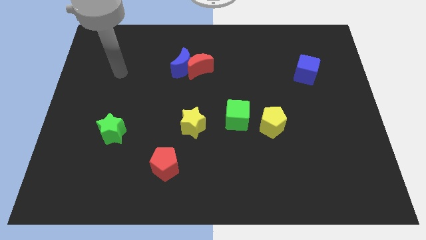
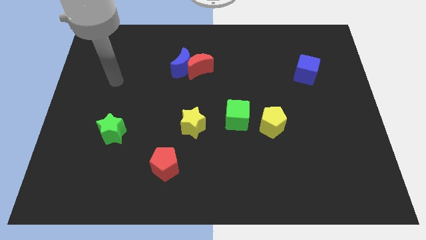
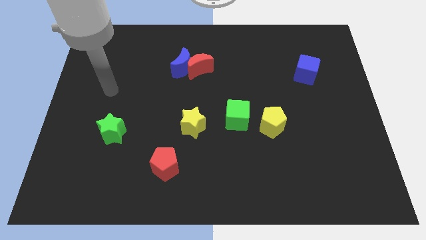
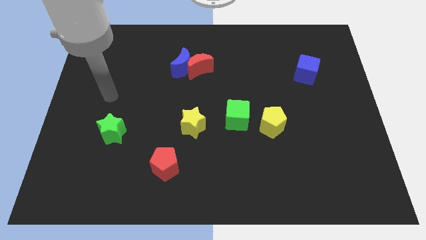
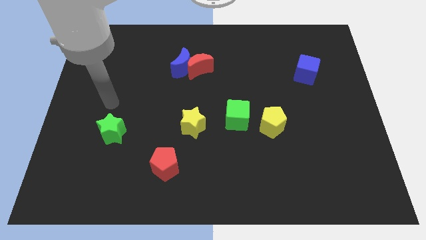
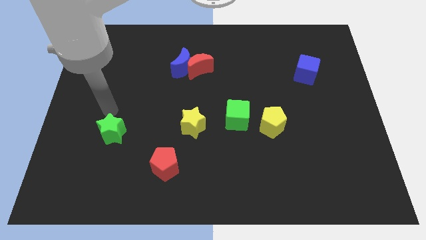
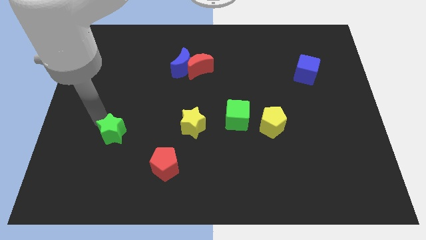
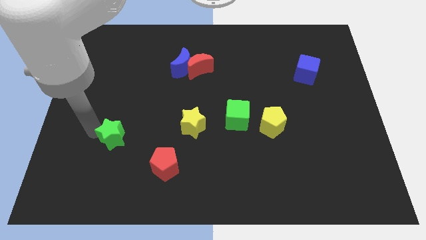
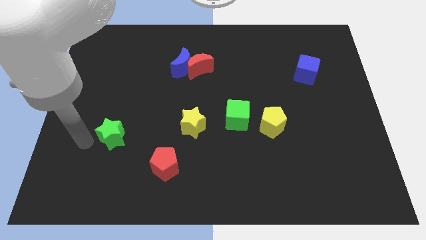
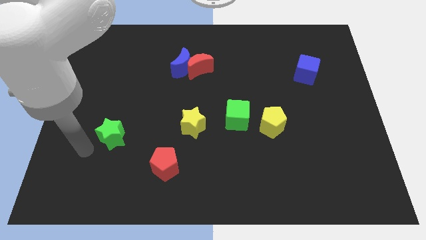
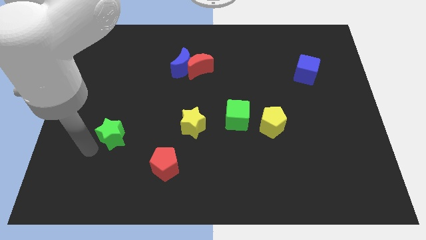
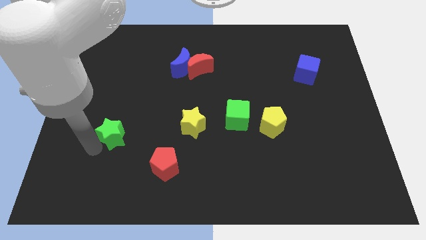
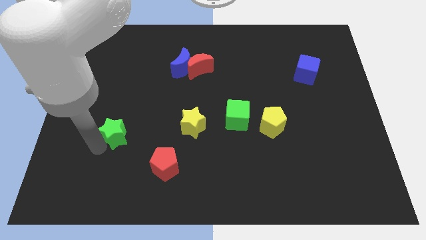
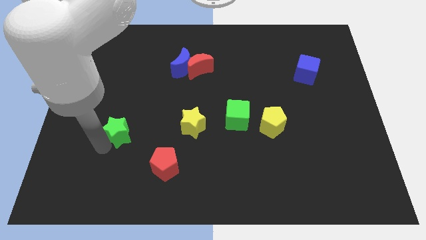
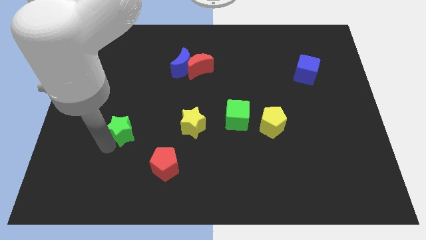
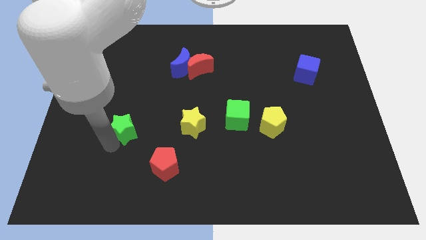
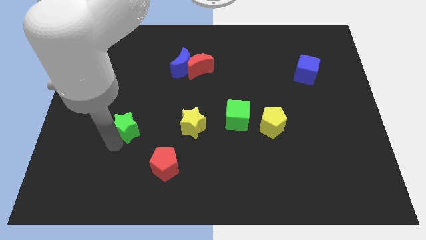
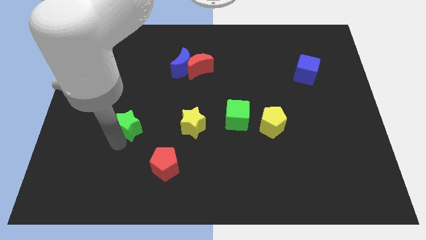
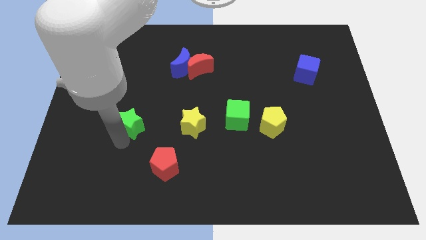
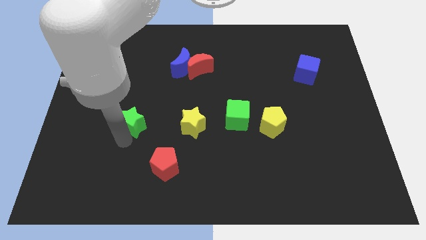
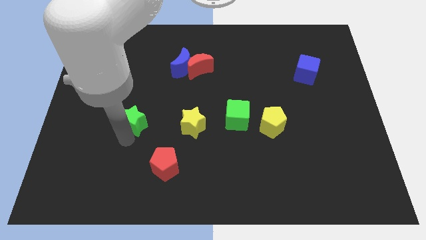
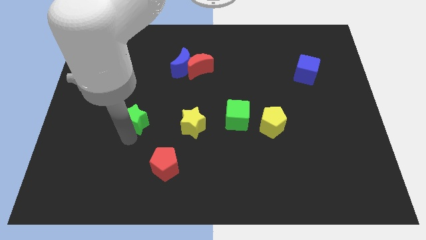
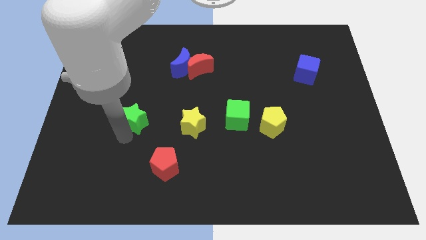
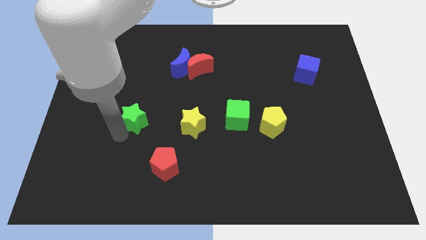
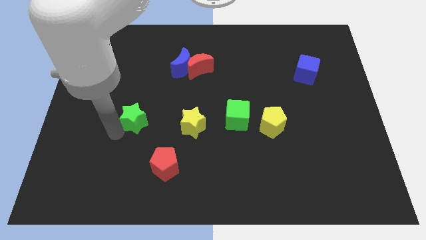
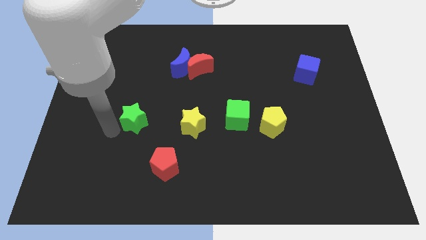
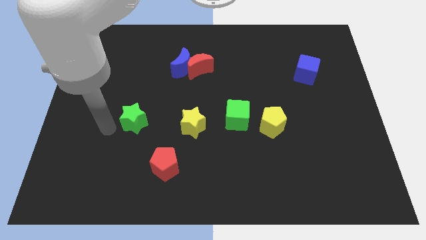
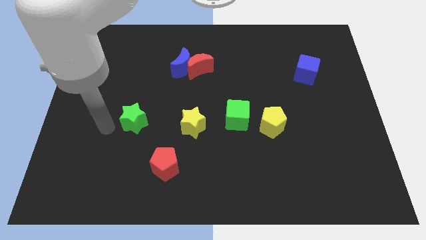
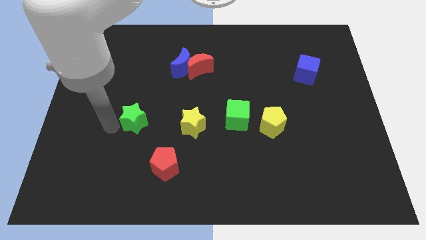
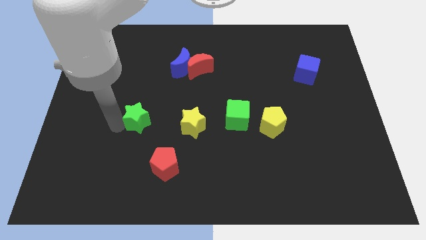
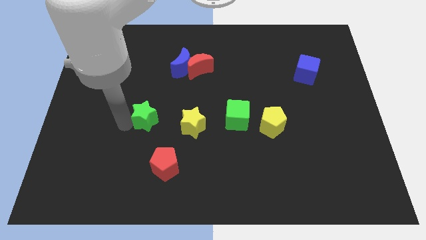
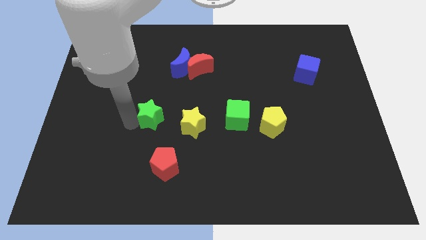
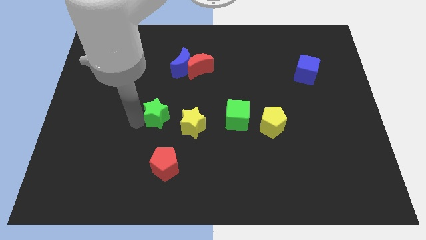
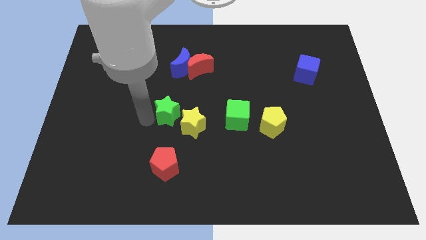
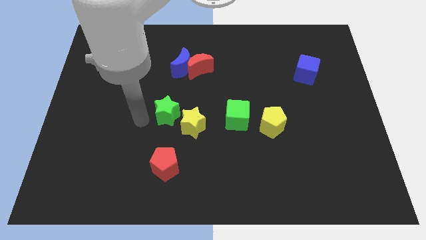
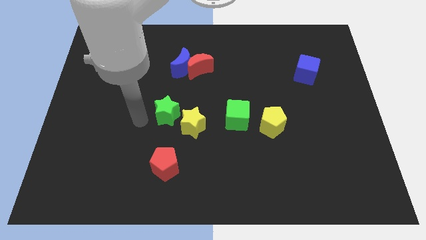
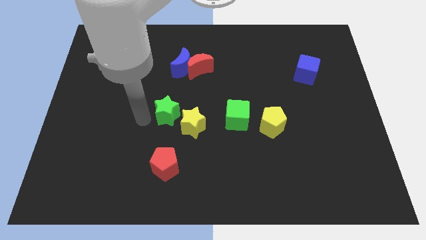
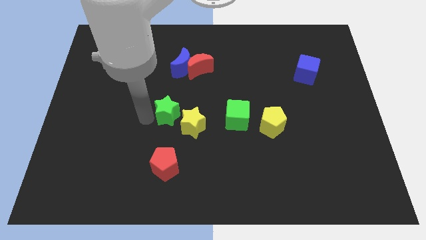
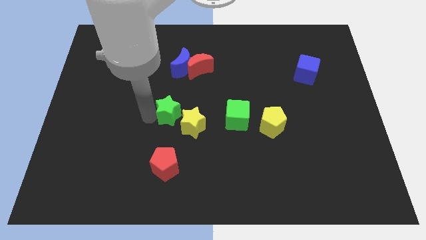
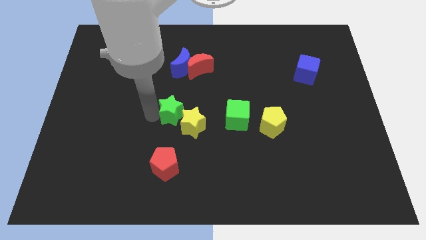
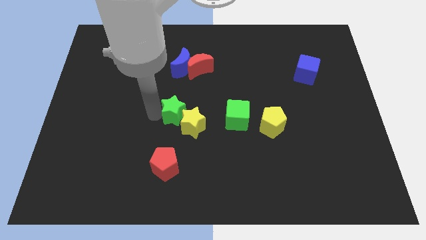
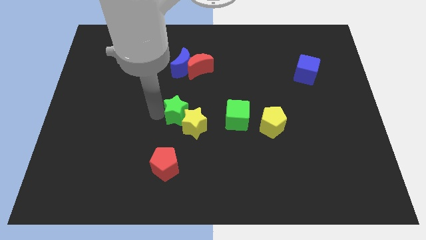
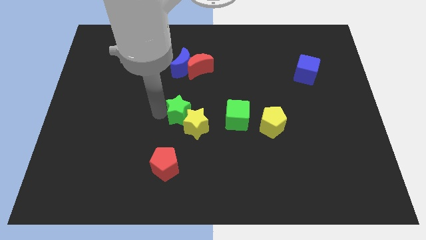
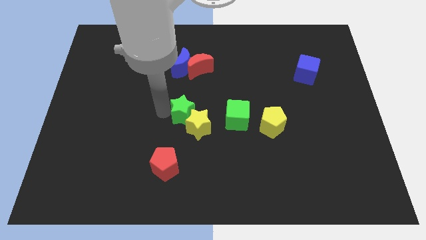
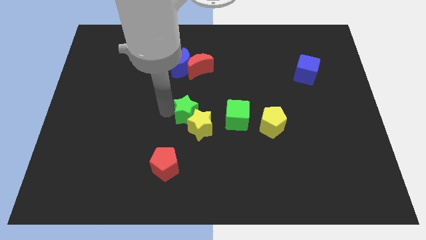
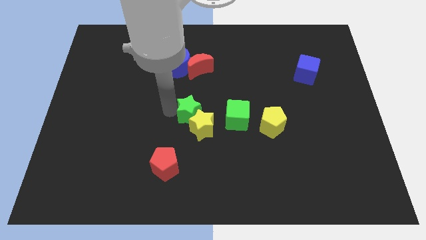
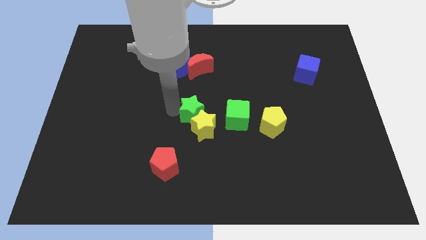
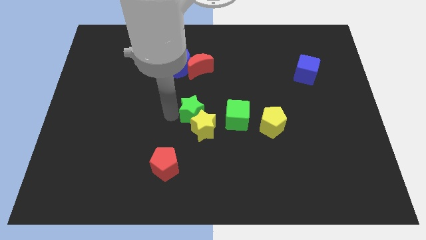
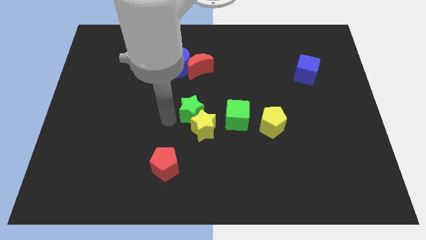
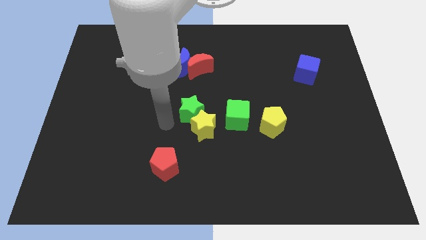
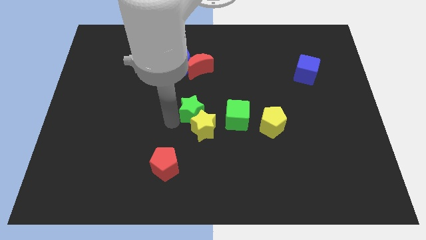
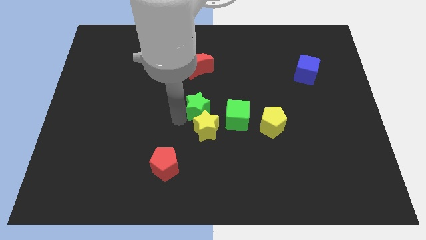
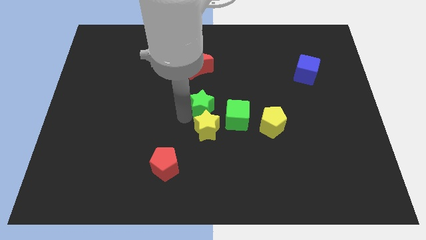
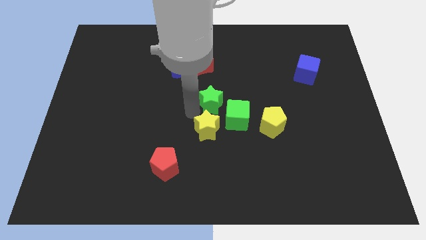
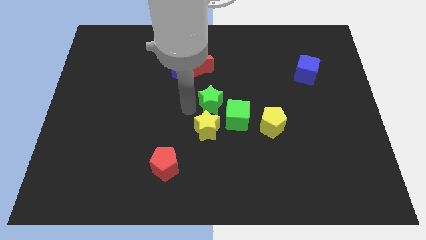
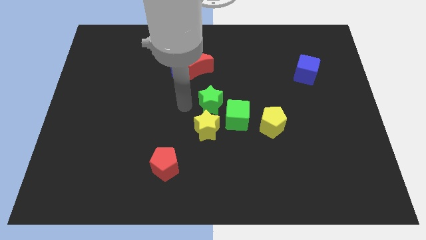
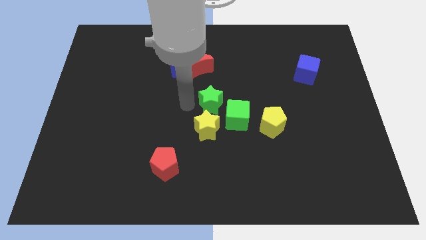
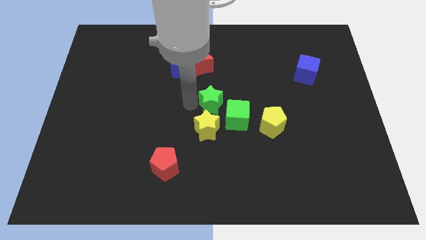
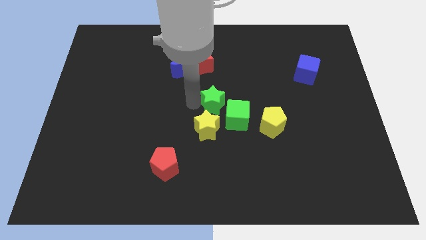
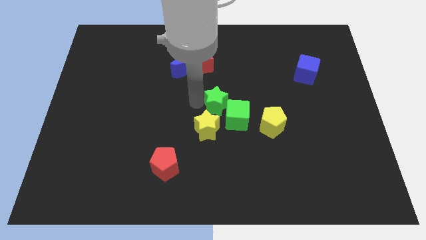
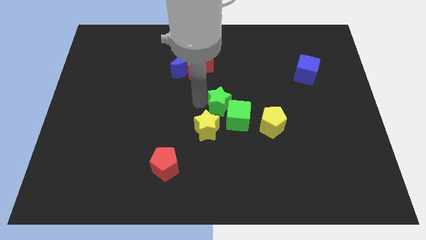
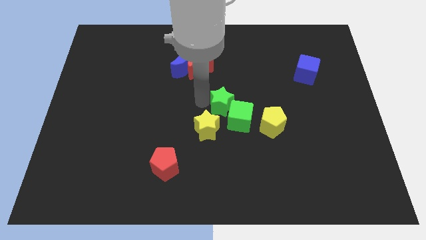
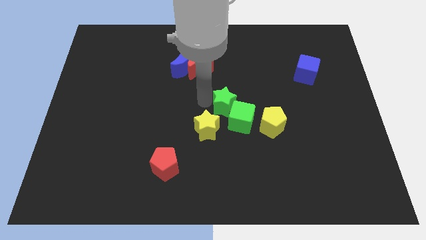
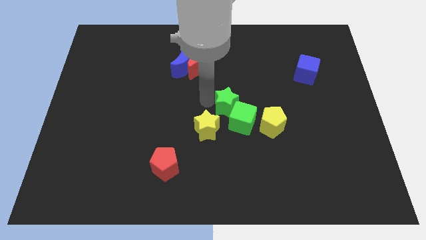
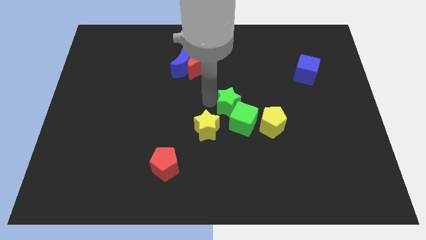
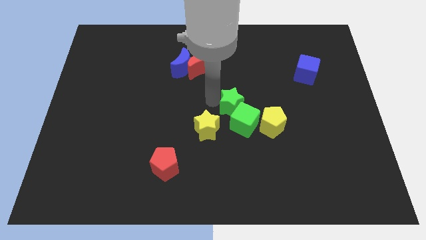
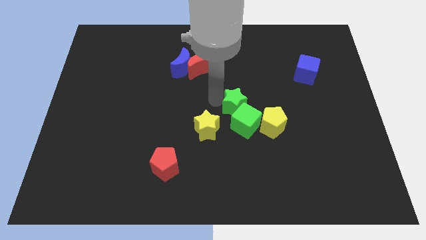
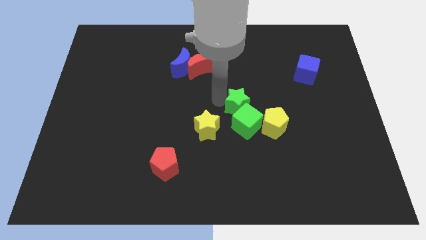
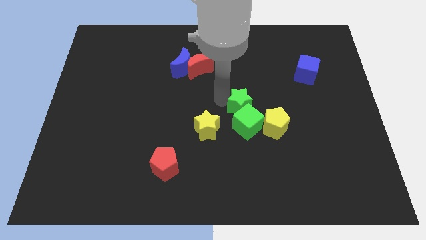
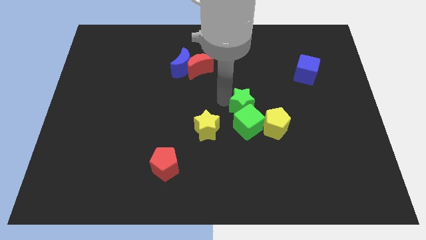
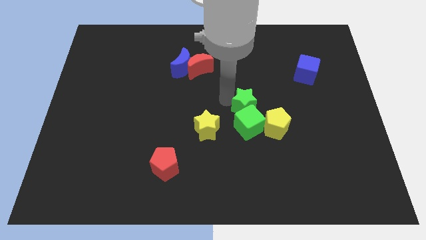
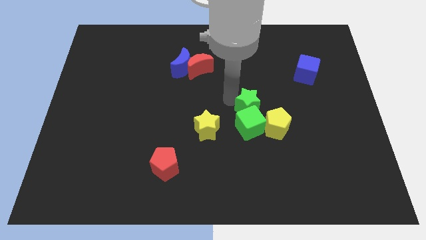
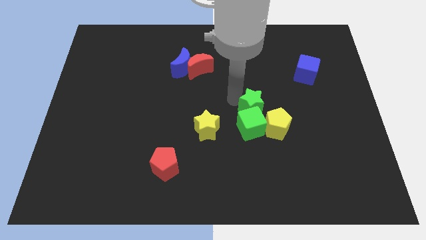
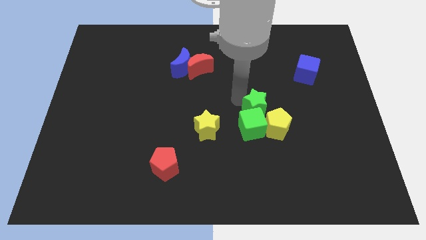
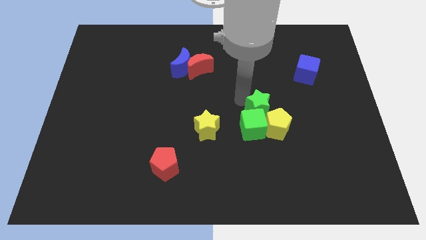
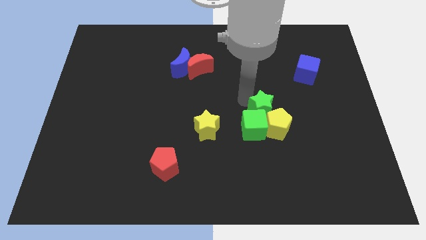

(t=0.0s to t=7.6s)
slide the green star towards the yellow pentagon

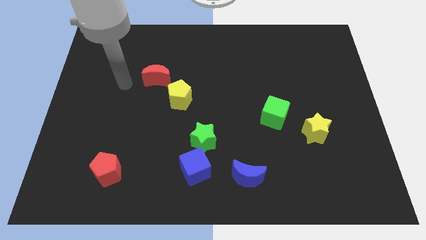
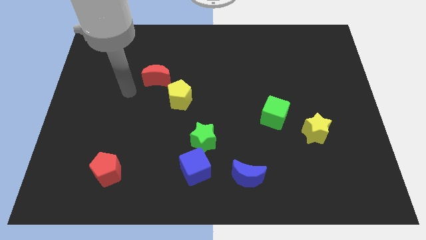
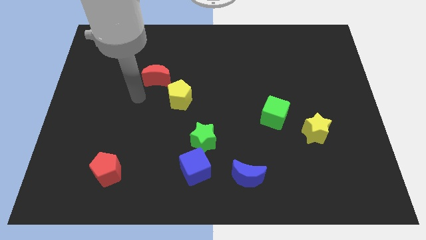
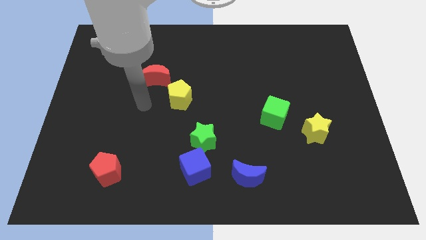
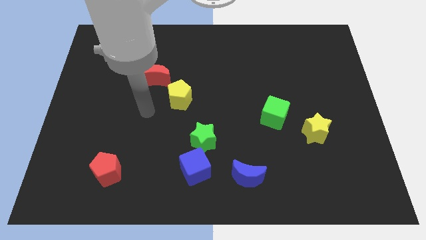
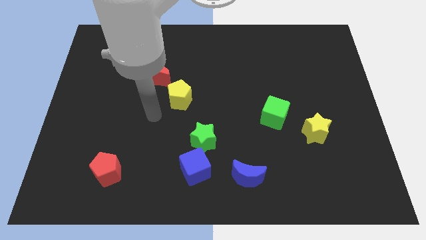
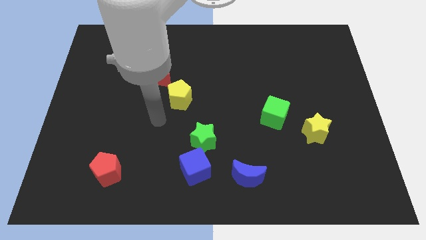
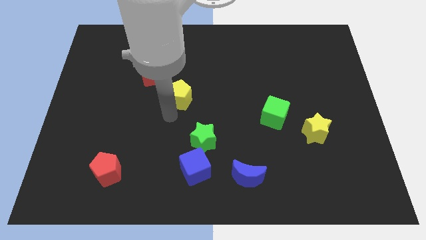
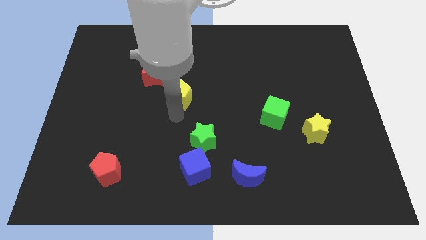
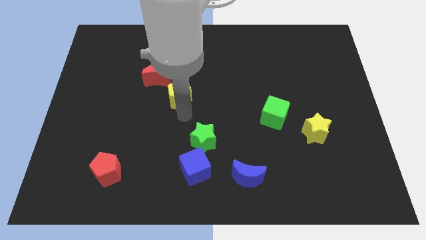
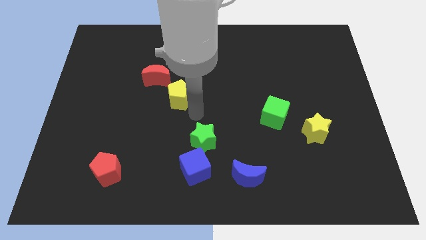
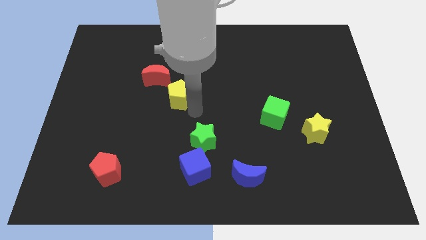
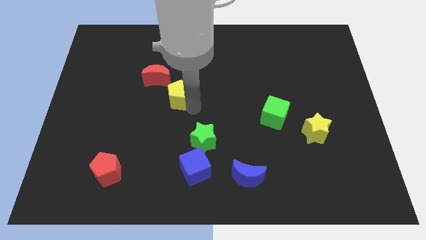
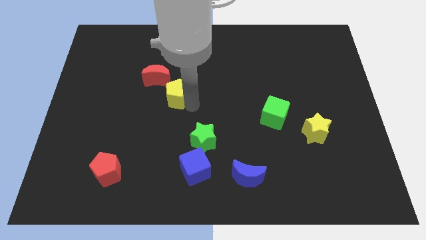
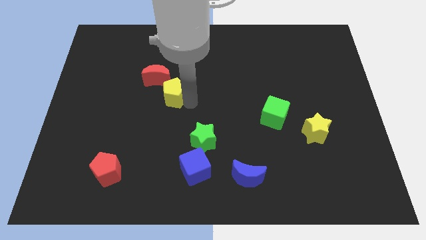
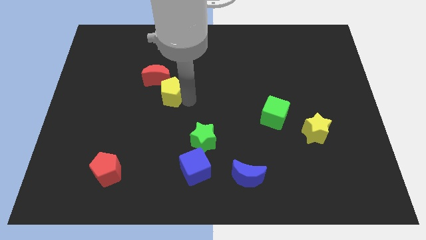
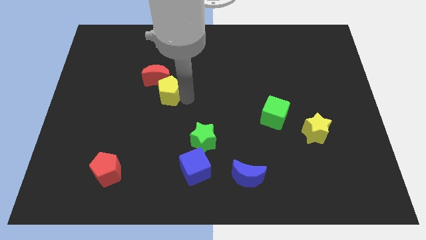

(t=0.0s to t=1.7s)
move the yellow pentagon towards the red moon
